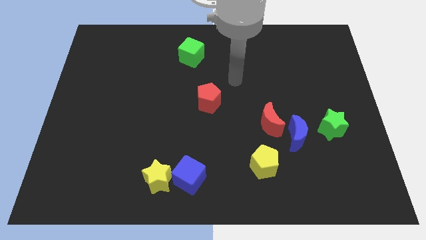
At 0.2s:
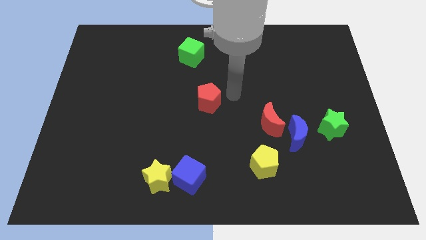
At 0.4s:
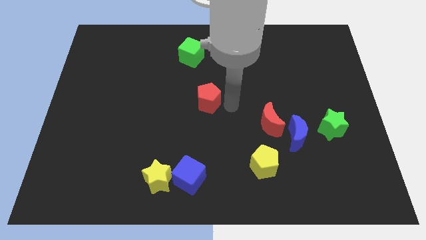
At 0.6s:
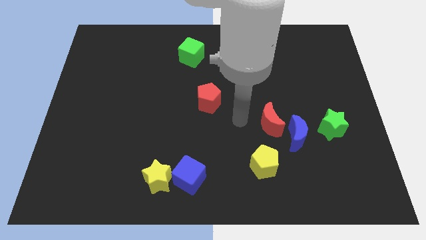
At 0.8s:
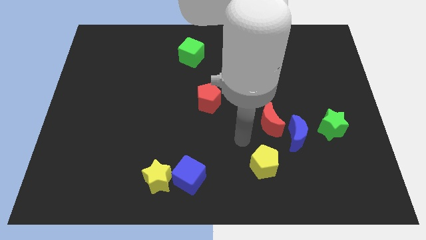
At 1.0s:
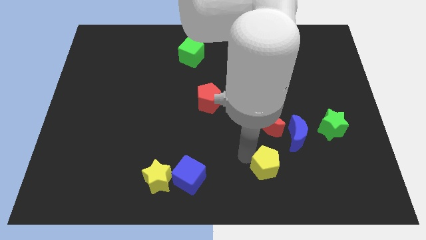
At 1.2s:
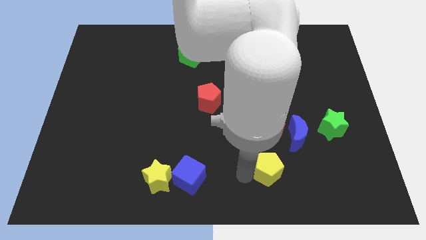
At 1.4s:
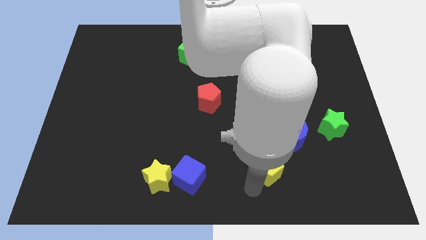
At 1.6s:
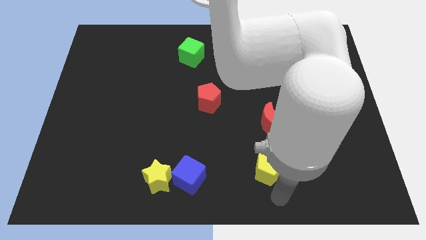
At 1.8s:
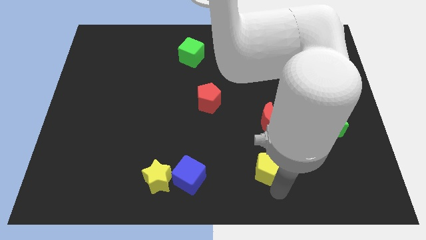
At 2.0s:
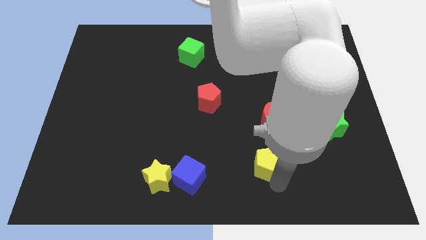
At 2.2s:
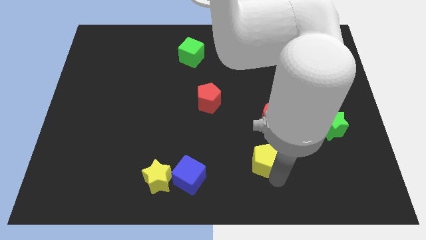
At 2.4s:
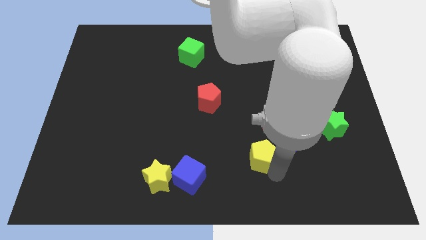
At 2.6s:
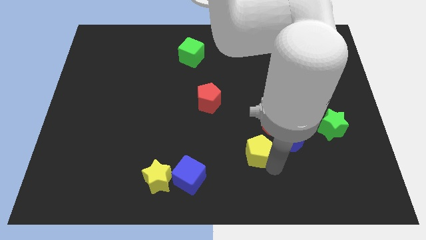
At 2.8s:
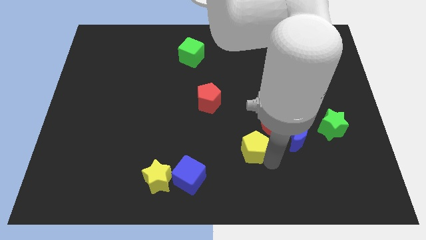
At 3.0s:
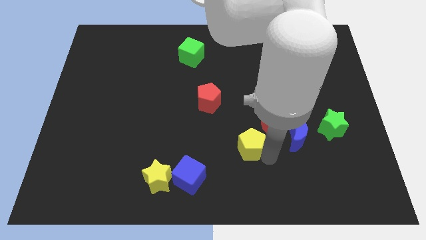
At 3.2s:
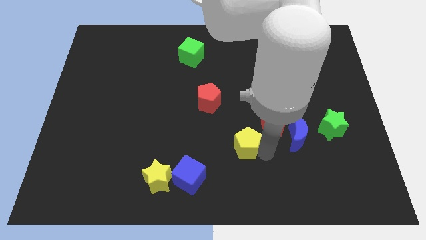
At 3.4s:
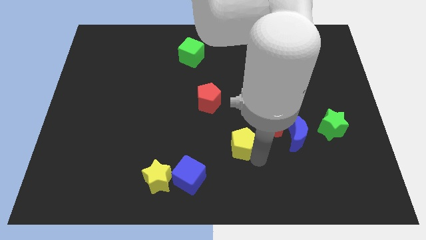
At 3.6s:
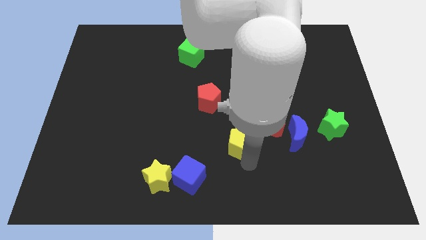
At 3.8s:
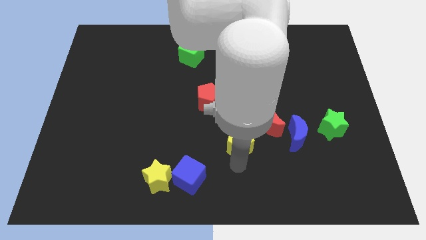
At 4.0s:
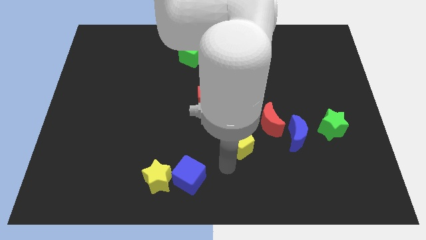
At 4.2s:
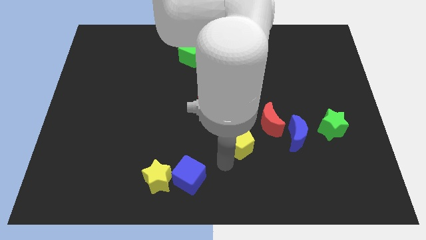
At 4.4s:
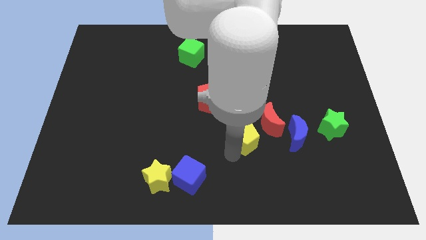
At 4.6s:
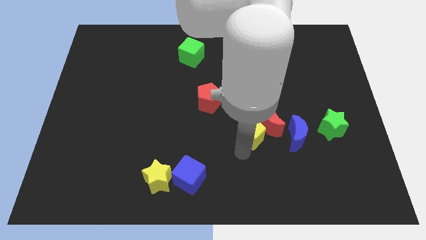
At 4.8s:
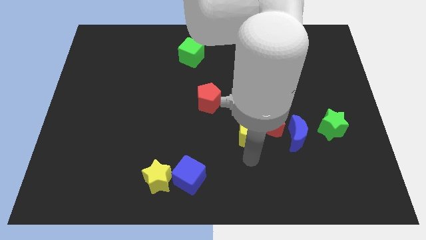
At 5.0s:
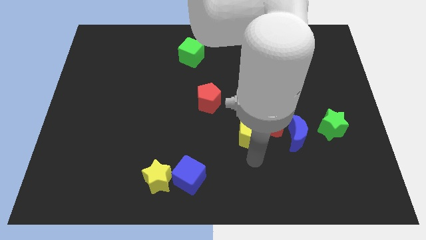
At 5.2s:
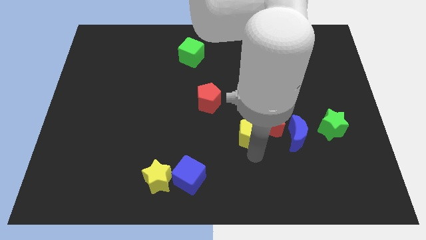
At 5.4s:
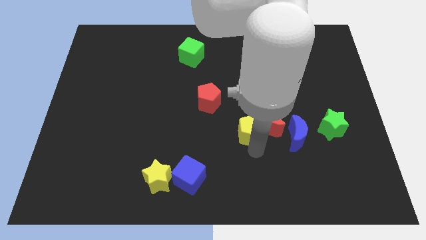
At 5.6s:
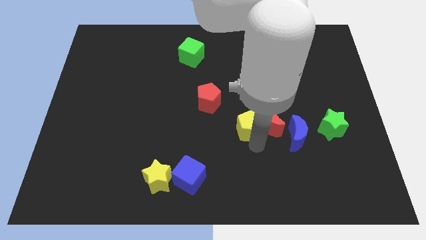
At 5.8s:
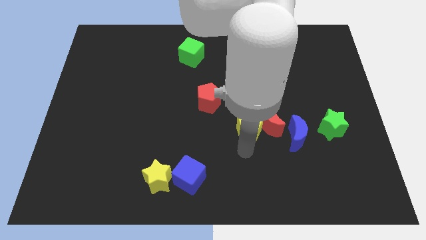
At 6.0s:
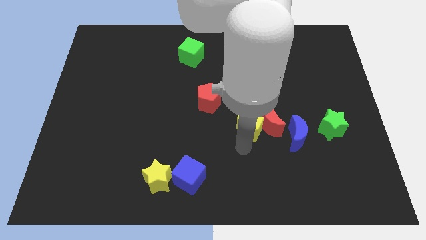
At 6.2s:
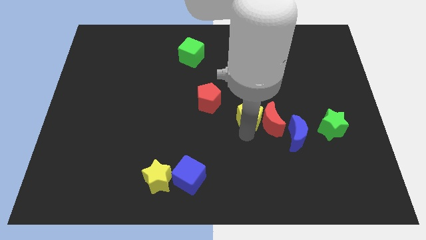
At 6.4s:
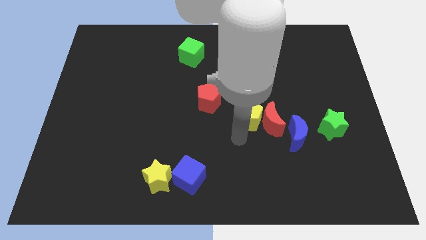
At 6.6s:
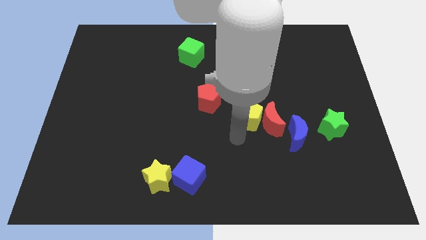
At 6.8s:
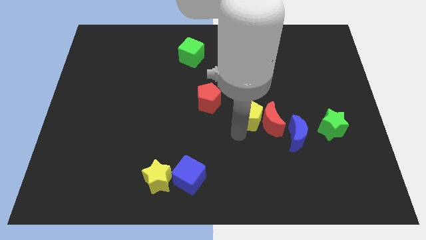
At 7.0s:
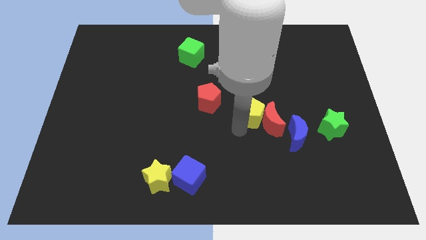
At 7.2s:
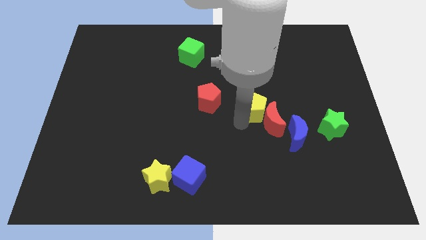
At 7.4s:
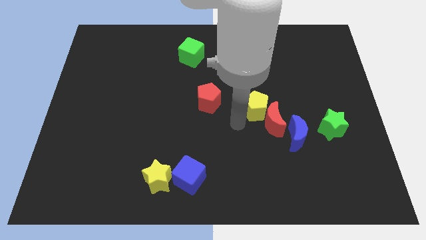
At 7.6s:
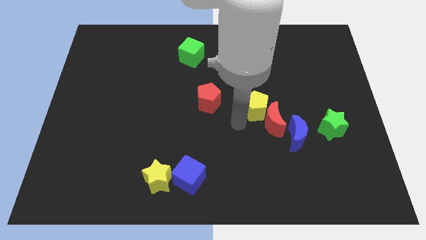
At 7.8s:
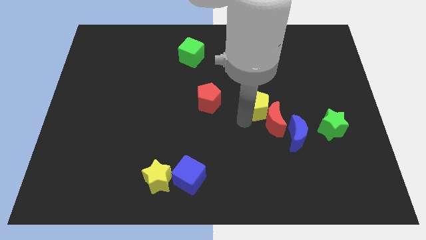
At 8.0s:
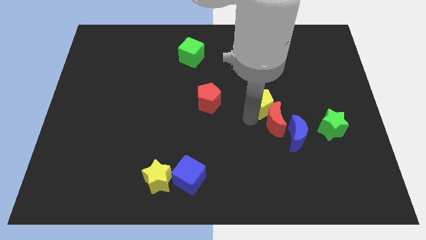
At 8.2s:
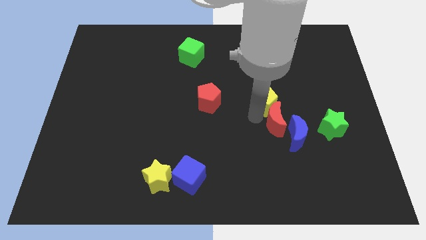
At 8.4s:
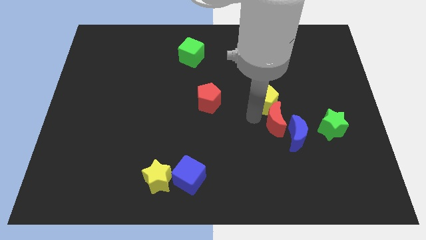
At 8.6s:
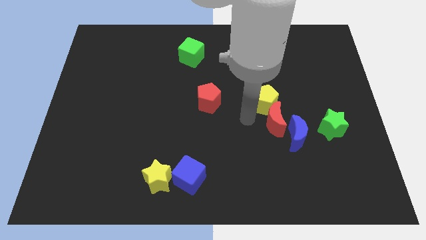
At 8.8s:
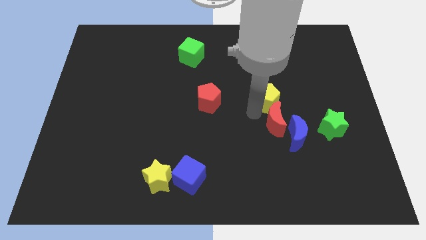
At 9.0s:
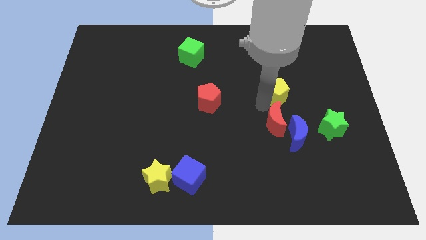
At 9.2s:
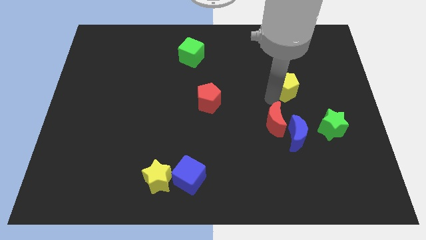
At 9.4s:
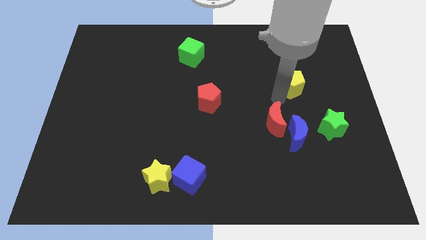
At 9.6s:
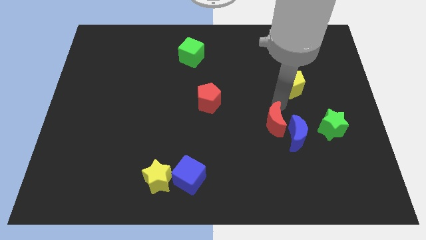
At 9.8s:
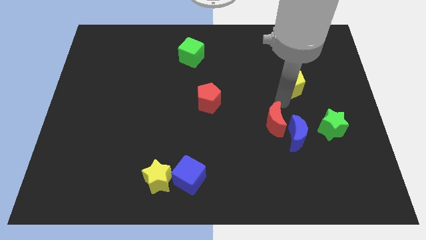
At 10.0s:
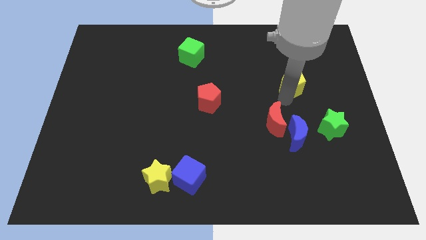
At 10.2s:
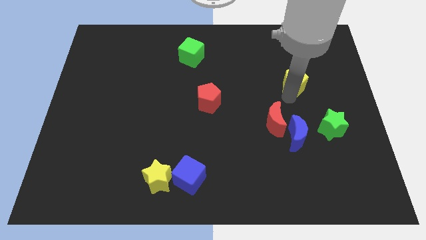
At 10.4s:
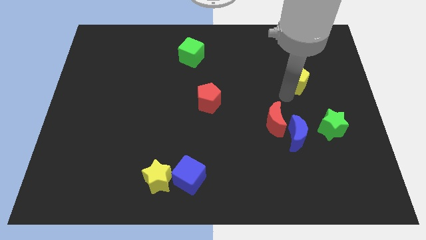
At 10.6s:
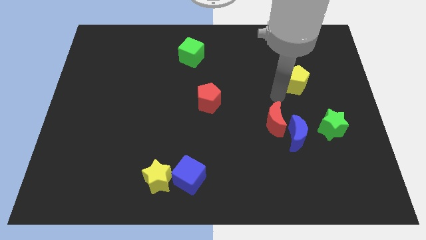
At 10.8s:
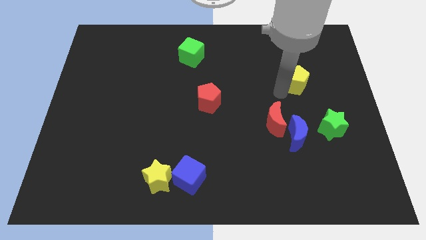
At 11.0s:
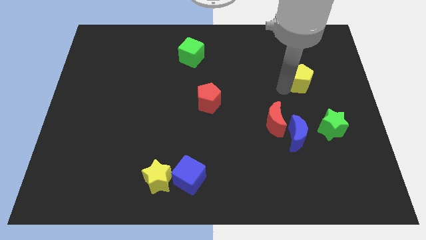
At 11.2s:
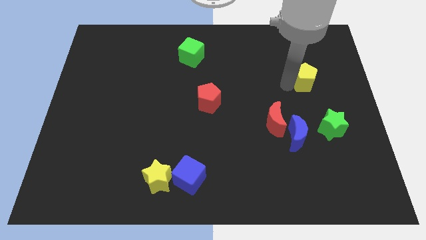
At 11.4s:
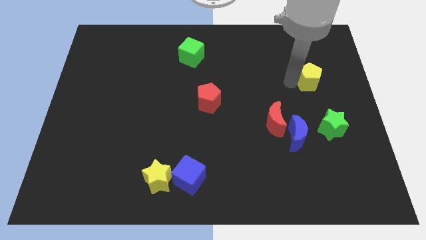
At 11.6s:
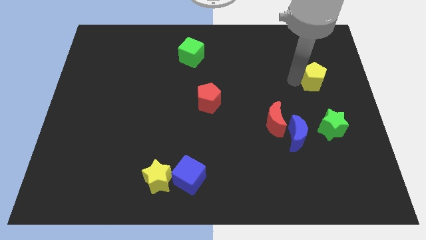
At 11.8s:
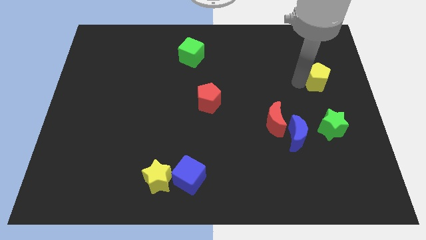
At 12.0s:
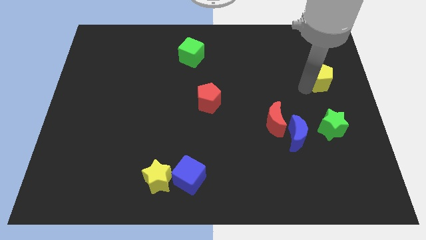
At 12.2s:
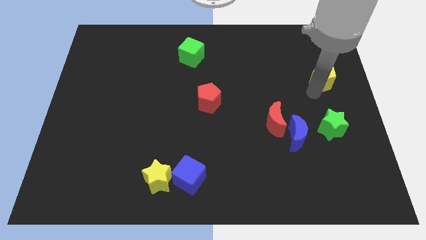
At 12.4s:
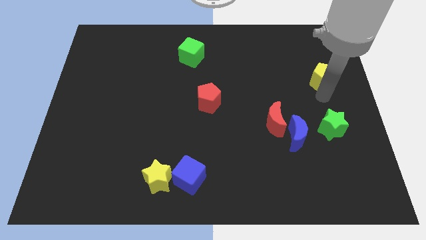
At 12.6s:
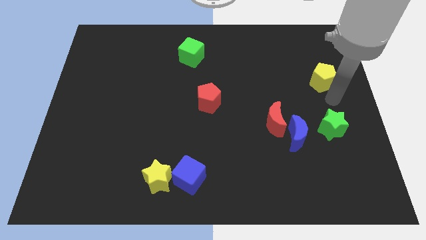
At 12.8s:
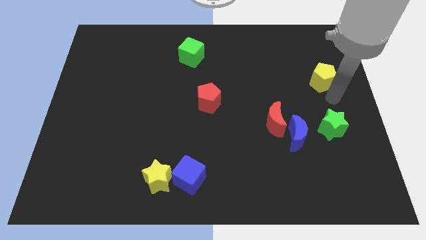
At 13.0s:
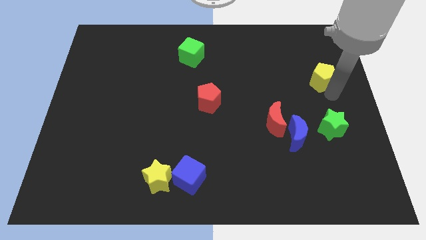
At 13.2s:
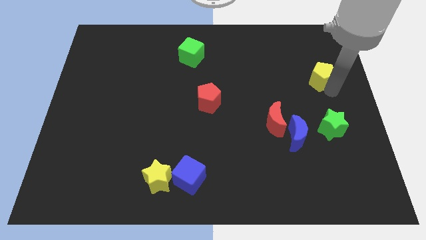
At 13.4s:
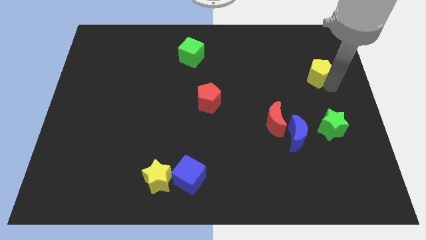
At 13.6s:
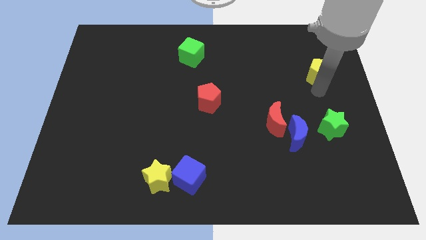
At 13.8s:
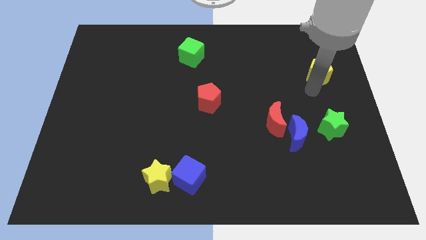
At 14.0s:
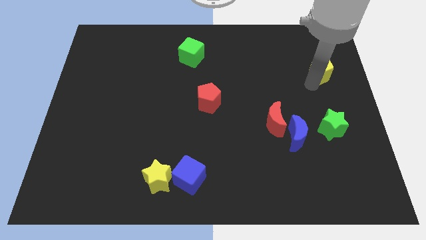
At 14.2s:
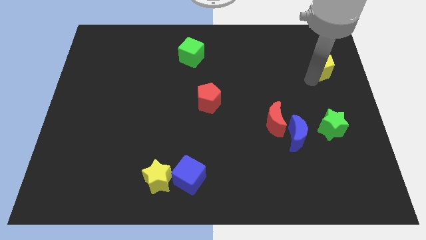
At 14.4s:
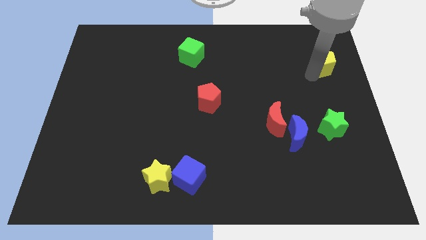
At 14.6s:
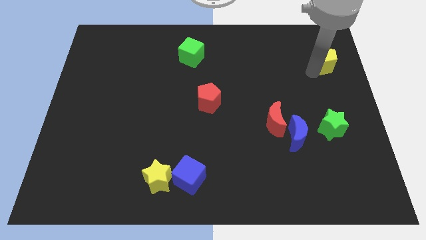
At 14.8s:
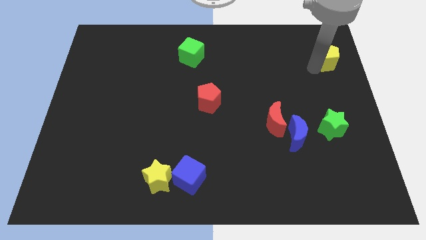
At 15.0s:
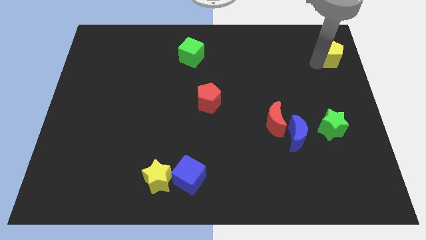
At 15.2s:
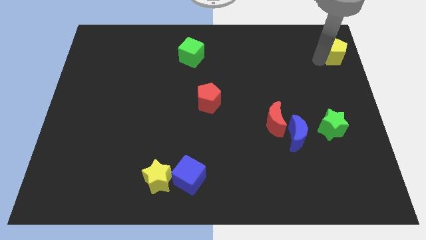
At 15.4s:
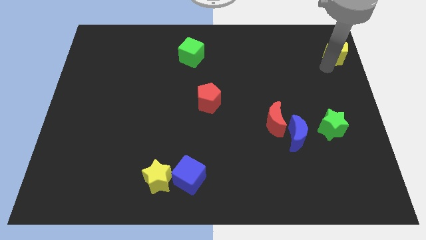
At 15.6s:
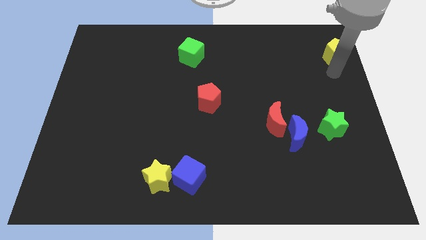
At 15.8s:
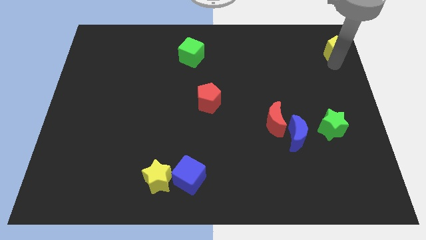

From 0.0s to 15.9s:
slide the yellow pentagon to the top right
